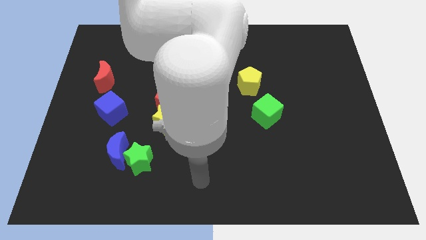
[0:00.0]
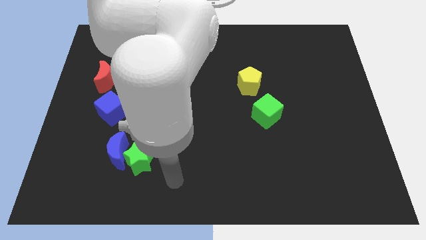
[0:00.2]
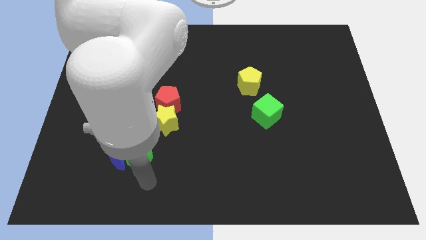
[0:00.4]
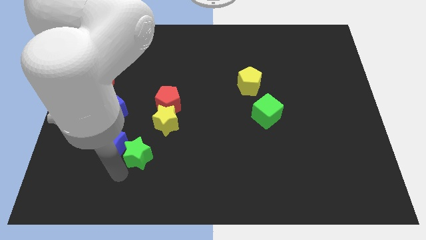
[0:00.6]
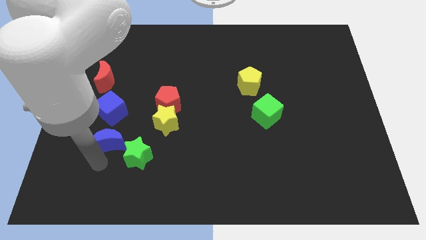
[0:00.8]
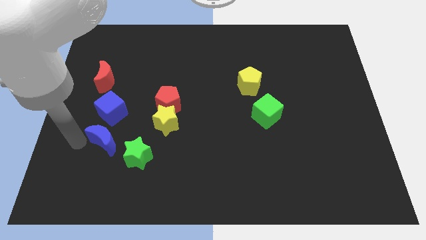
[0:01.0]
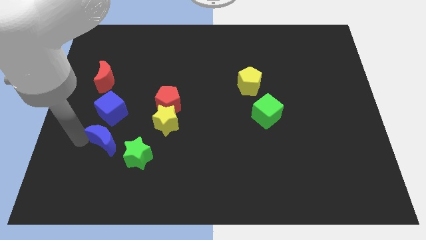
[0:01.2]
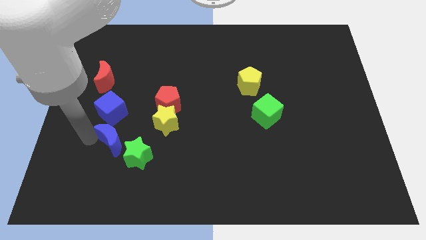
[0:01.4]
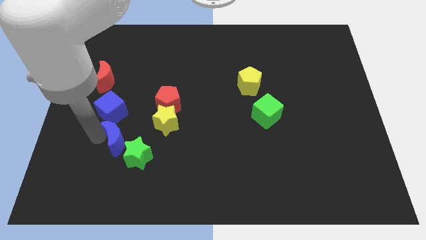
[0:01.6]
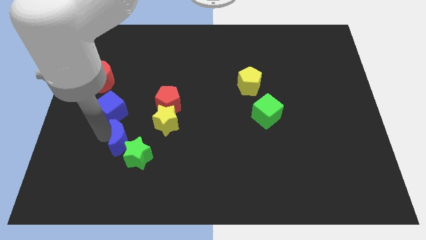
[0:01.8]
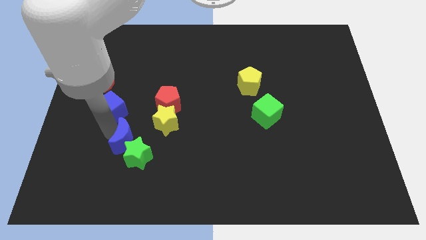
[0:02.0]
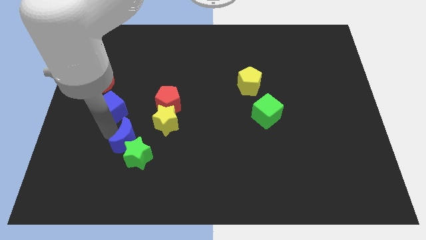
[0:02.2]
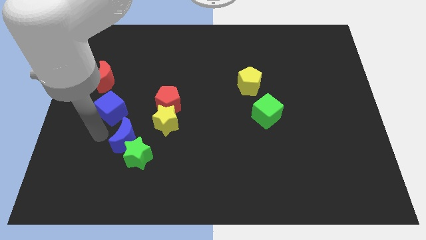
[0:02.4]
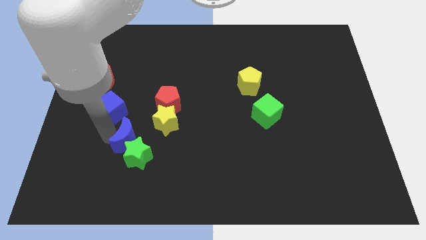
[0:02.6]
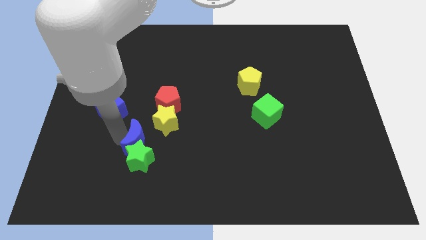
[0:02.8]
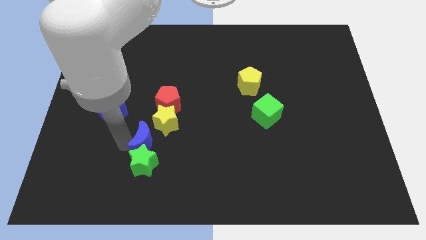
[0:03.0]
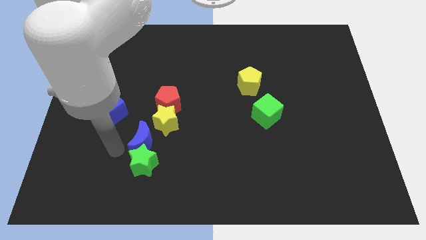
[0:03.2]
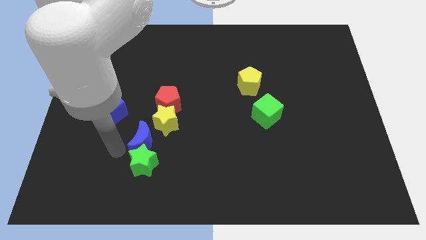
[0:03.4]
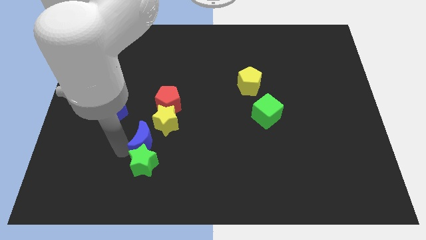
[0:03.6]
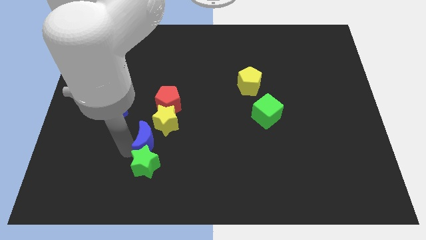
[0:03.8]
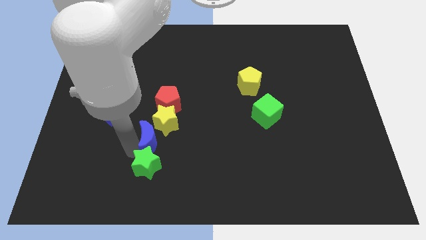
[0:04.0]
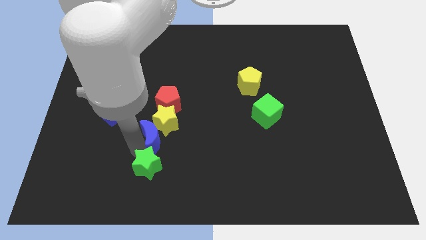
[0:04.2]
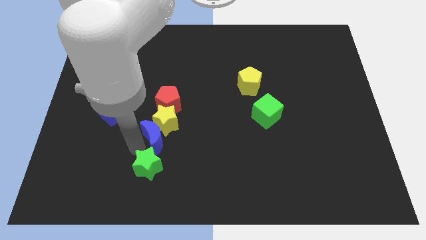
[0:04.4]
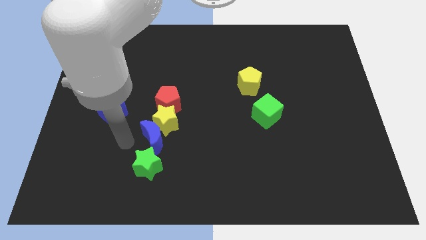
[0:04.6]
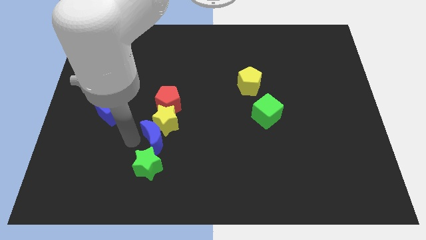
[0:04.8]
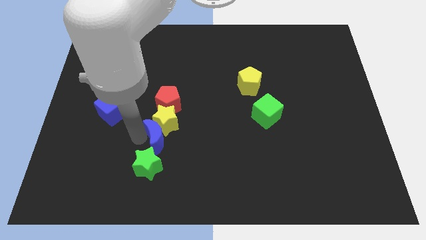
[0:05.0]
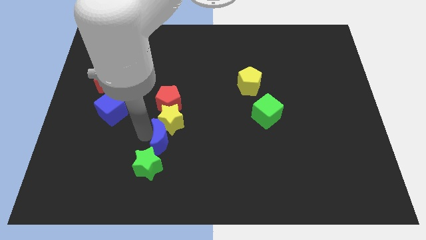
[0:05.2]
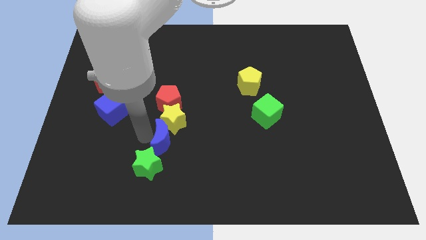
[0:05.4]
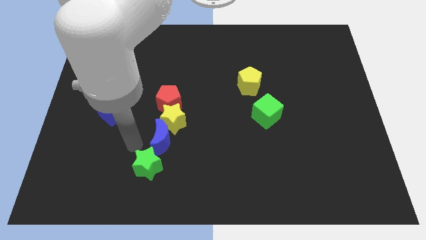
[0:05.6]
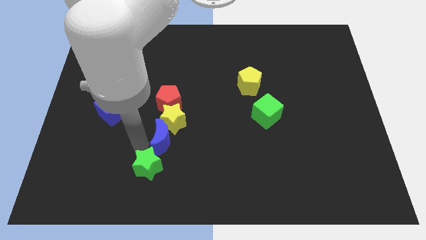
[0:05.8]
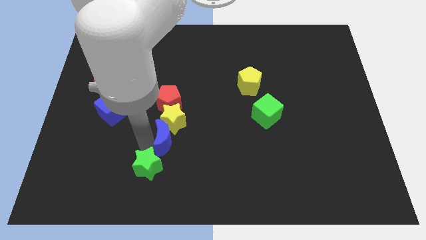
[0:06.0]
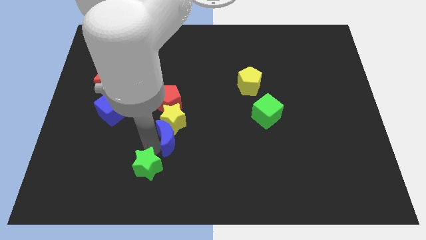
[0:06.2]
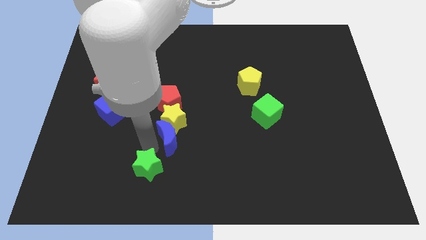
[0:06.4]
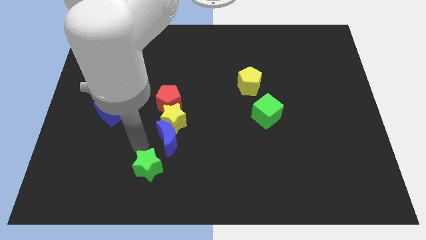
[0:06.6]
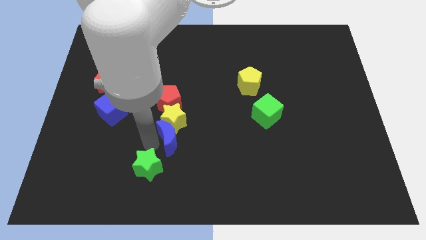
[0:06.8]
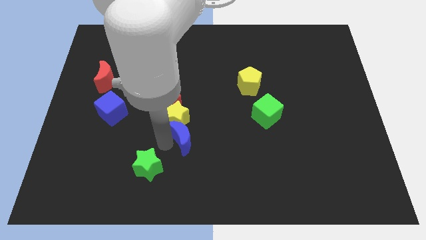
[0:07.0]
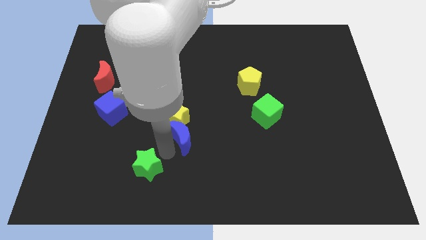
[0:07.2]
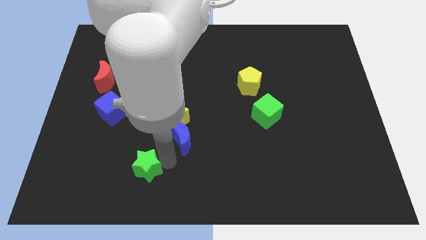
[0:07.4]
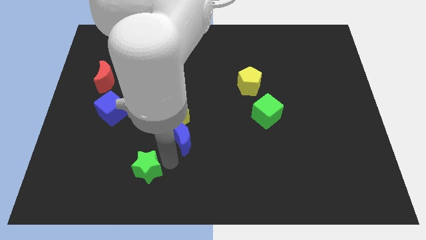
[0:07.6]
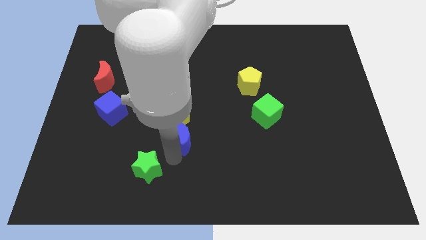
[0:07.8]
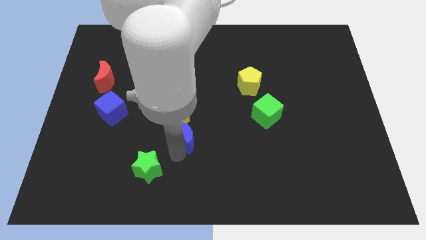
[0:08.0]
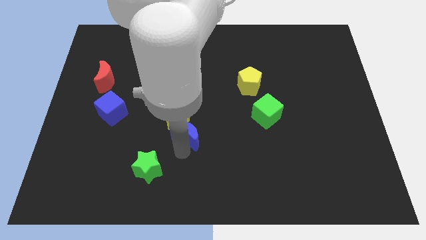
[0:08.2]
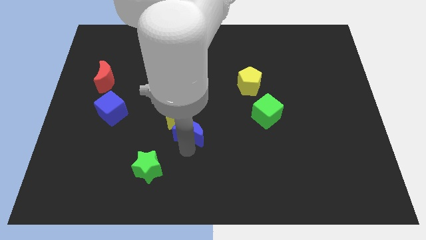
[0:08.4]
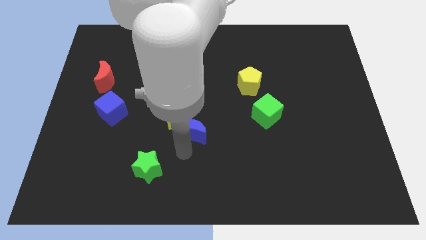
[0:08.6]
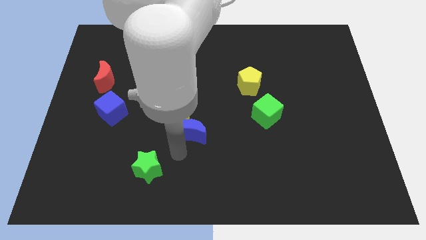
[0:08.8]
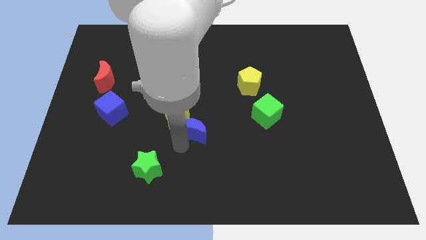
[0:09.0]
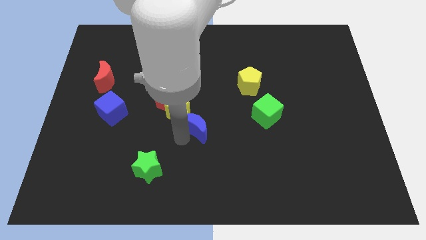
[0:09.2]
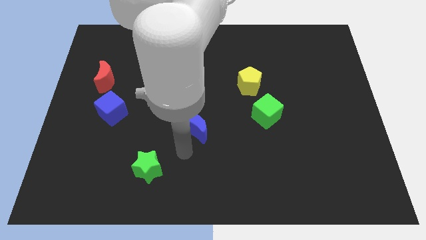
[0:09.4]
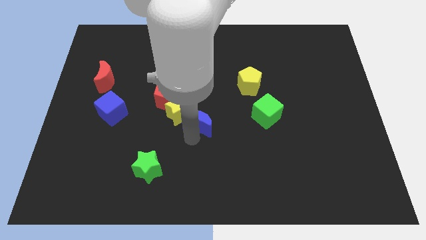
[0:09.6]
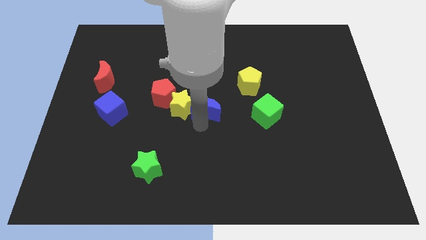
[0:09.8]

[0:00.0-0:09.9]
push the blue moon to the right of the red pentagon

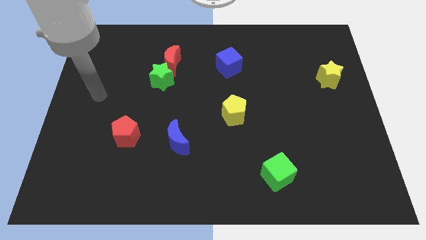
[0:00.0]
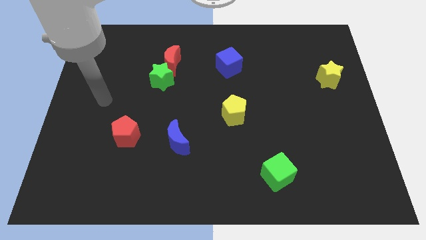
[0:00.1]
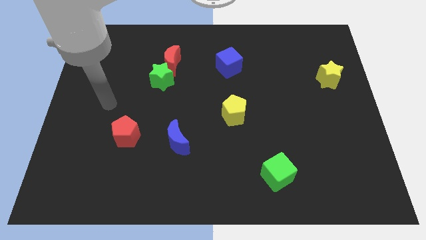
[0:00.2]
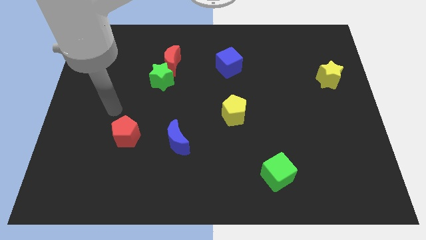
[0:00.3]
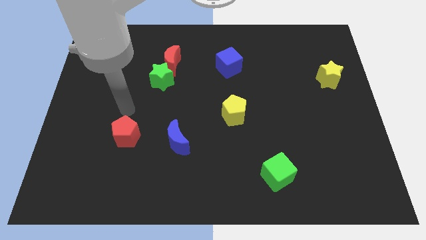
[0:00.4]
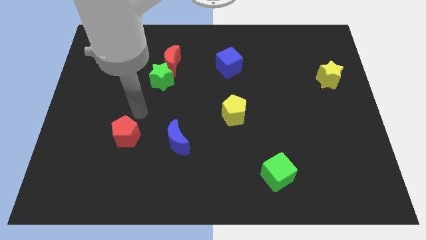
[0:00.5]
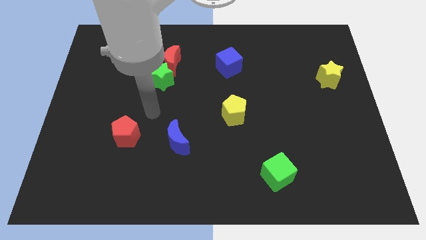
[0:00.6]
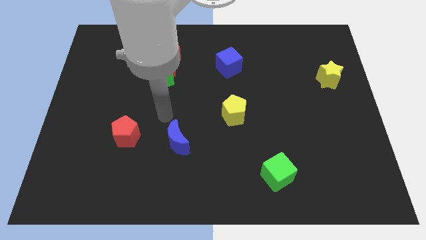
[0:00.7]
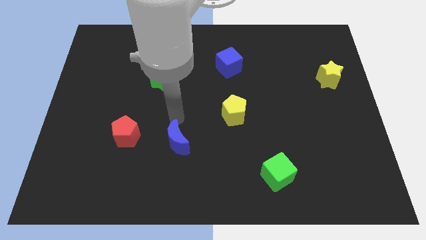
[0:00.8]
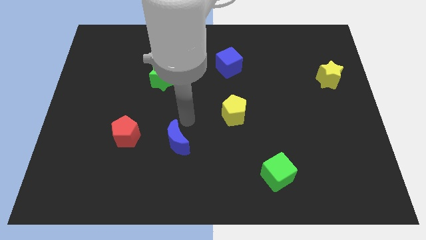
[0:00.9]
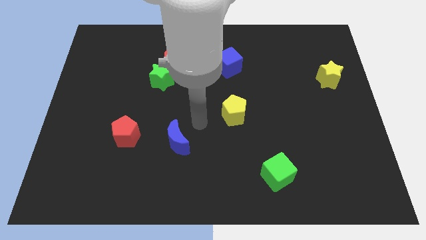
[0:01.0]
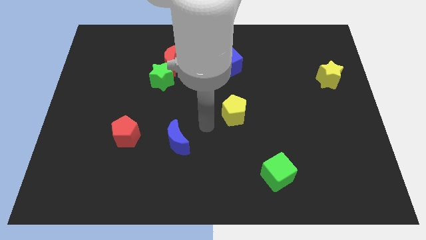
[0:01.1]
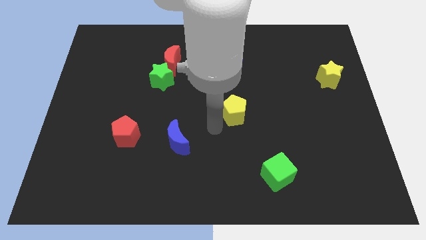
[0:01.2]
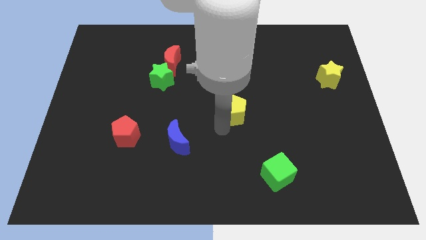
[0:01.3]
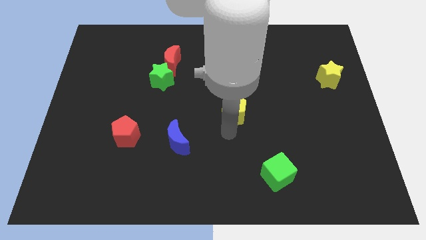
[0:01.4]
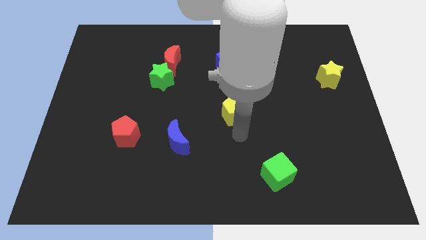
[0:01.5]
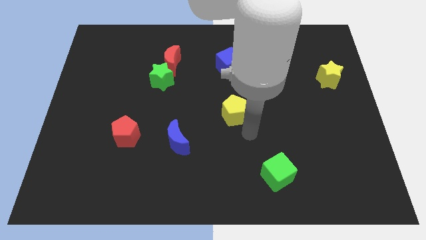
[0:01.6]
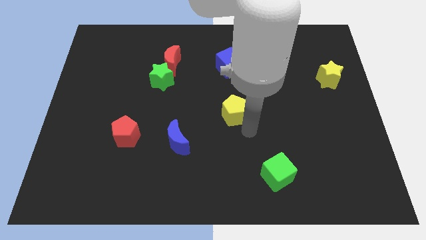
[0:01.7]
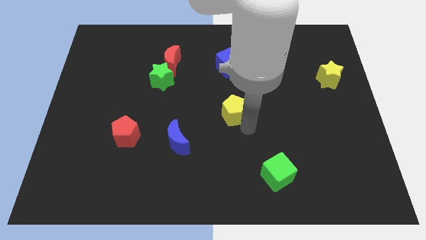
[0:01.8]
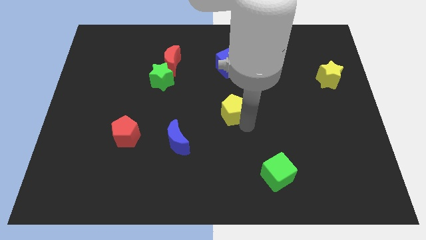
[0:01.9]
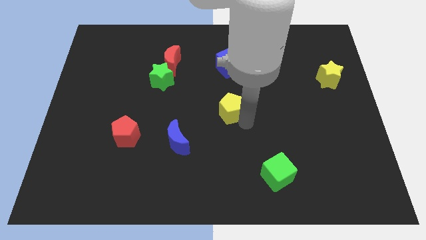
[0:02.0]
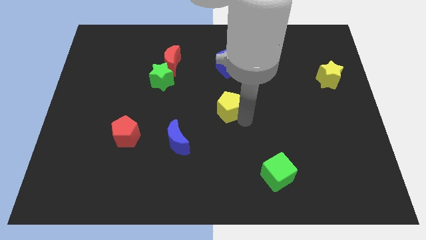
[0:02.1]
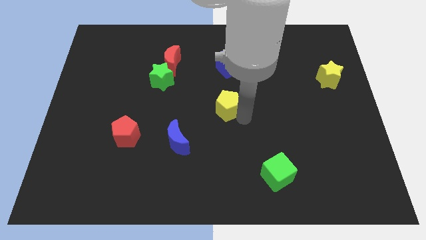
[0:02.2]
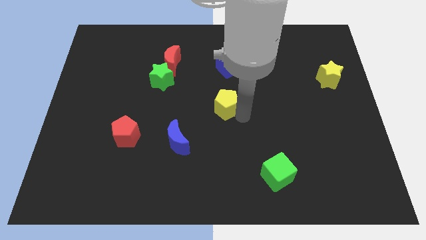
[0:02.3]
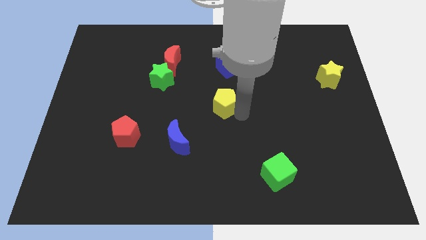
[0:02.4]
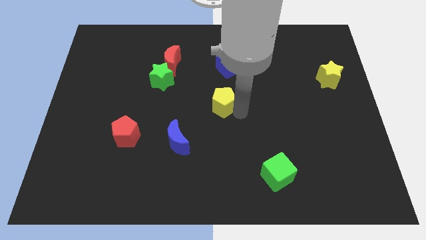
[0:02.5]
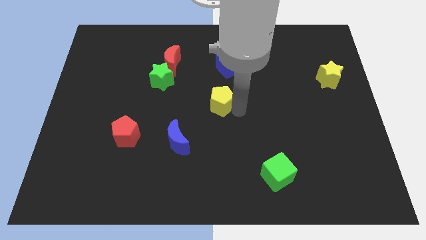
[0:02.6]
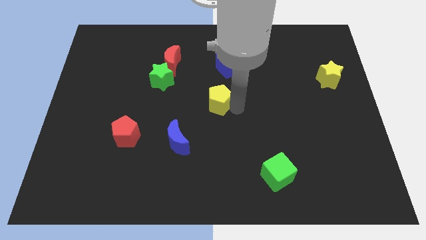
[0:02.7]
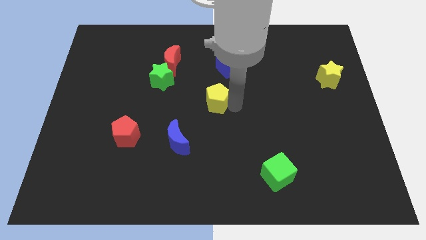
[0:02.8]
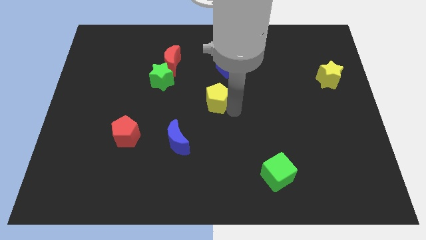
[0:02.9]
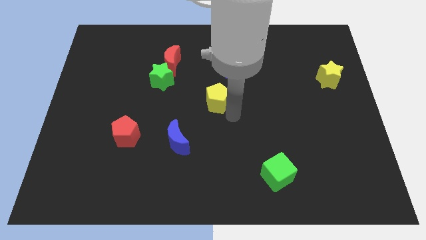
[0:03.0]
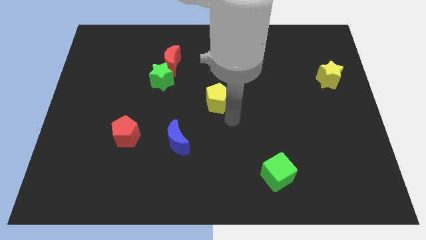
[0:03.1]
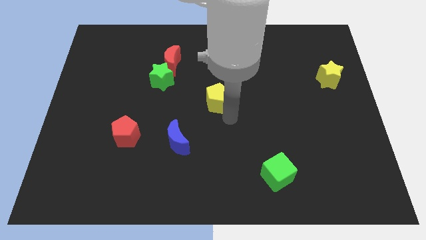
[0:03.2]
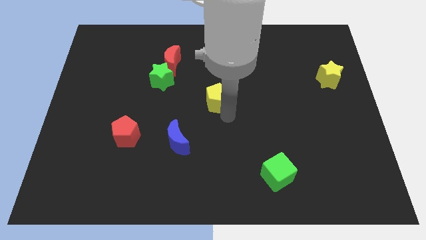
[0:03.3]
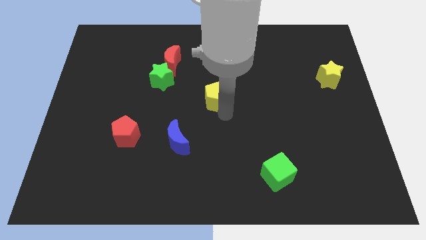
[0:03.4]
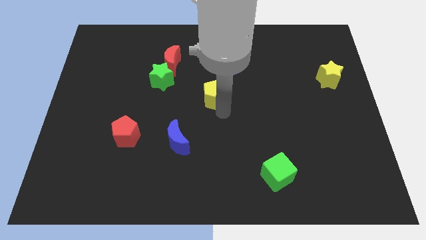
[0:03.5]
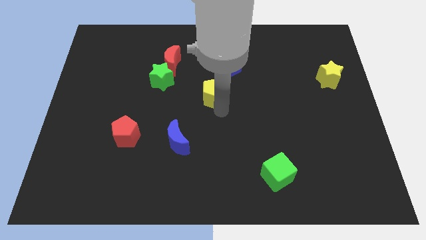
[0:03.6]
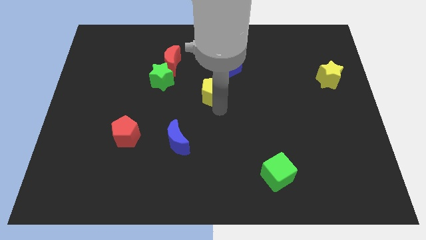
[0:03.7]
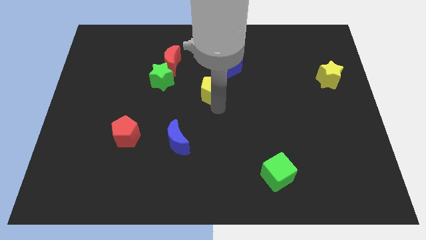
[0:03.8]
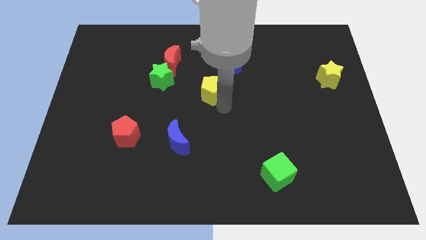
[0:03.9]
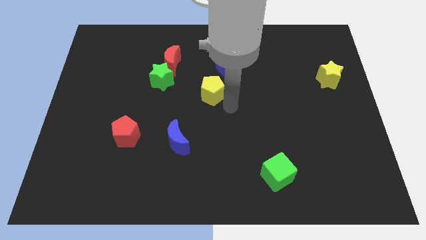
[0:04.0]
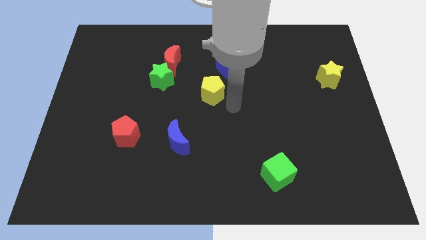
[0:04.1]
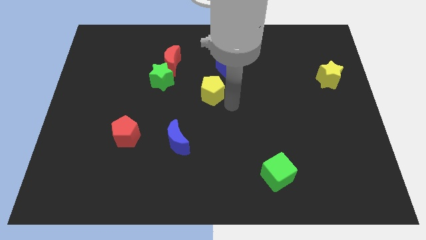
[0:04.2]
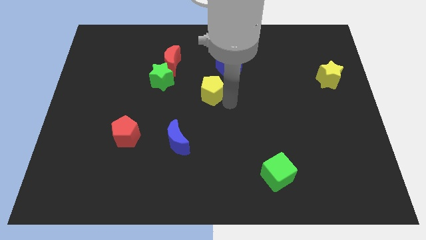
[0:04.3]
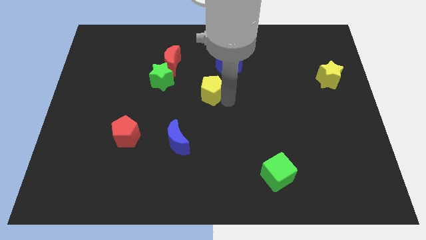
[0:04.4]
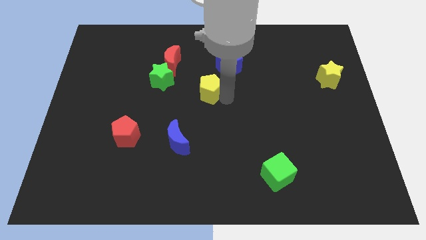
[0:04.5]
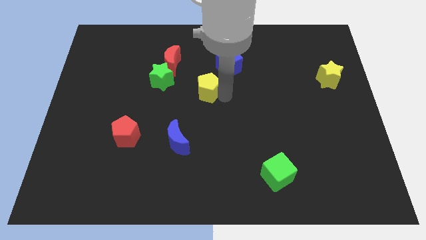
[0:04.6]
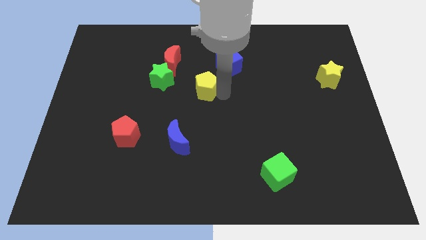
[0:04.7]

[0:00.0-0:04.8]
move the yellow pentagon diagonally down and to the right of the red moon
